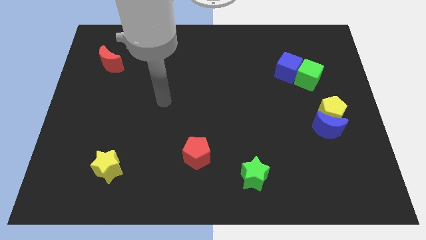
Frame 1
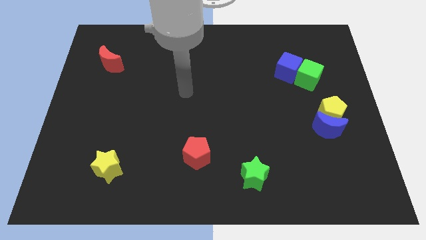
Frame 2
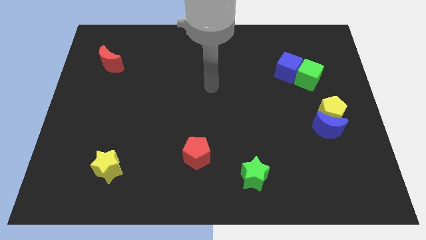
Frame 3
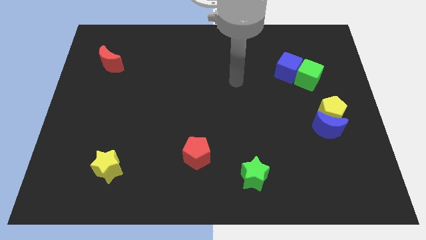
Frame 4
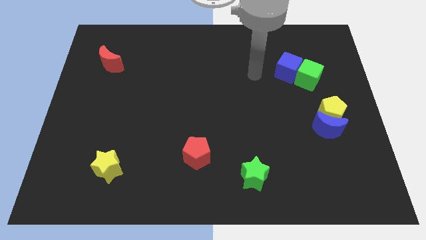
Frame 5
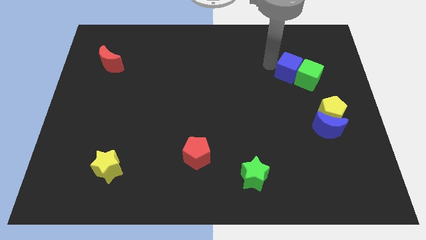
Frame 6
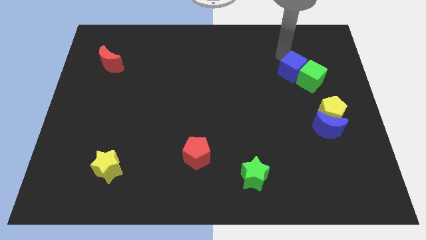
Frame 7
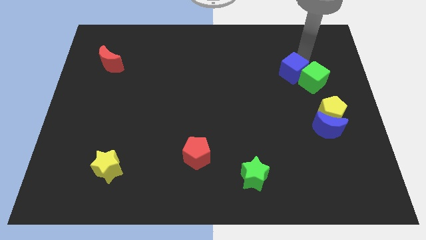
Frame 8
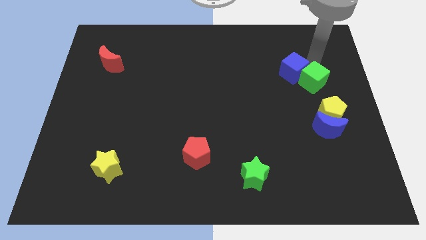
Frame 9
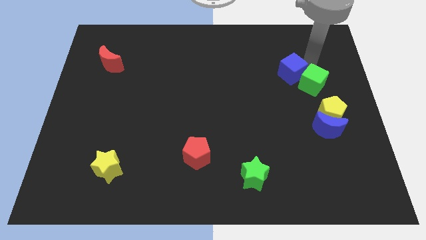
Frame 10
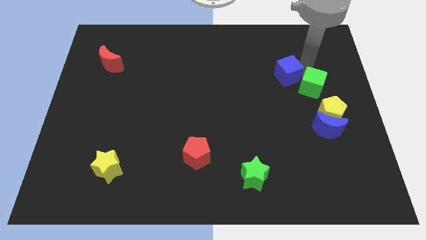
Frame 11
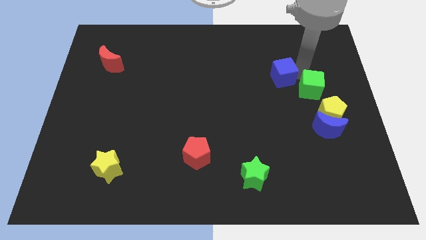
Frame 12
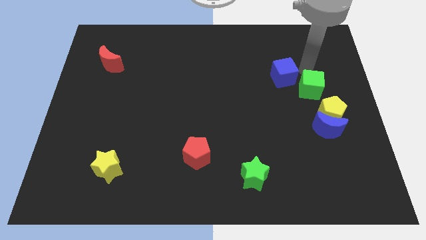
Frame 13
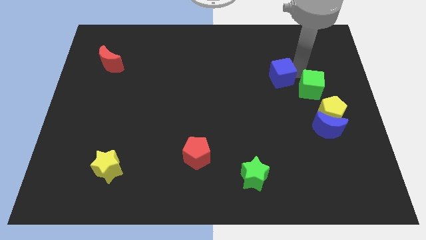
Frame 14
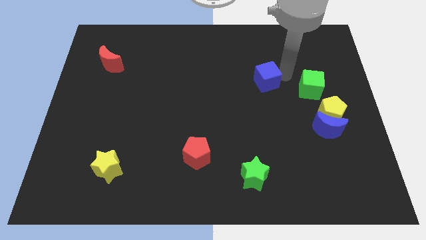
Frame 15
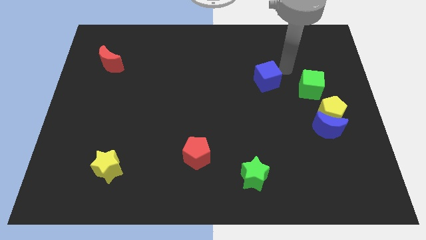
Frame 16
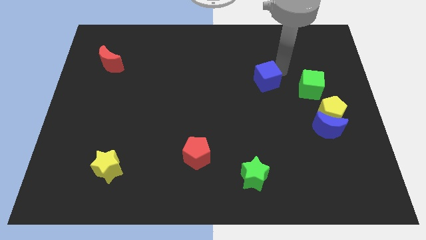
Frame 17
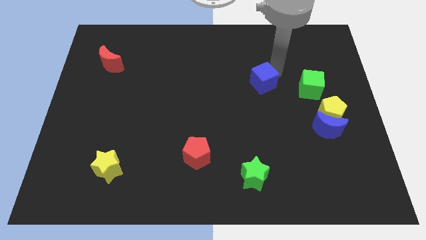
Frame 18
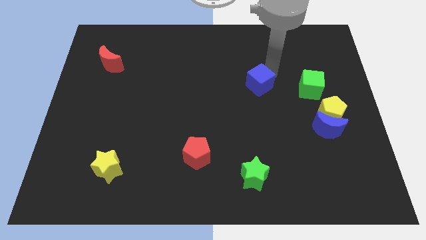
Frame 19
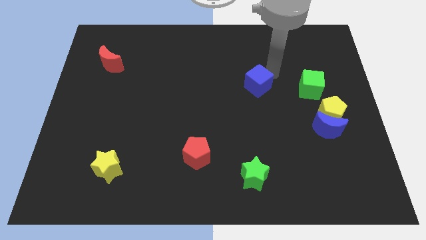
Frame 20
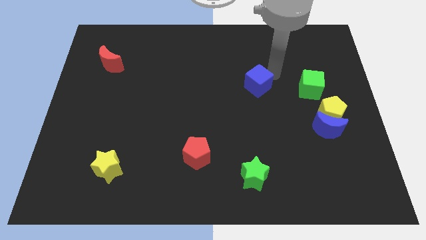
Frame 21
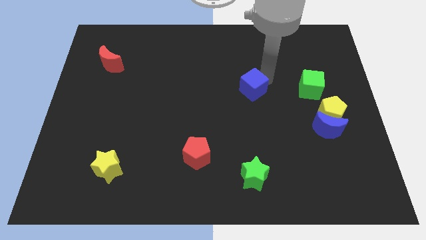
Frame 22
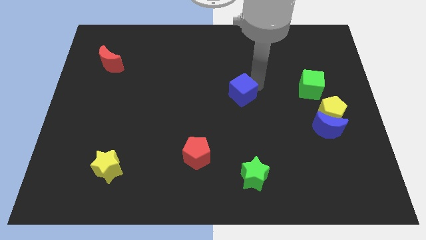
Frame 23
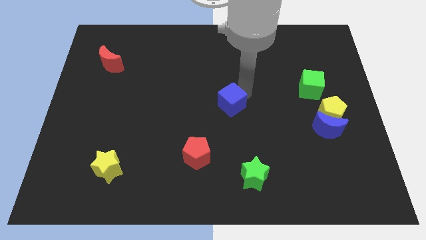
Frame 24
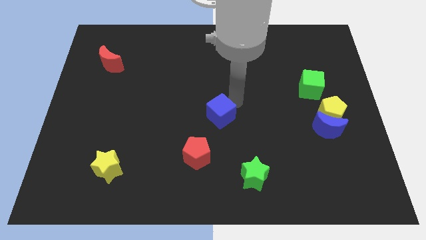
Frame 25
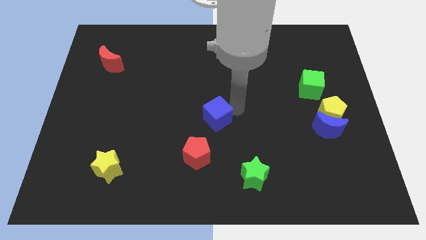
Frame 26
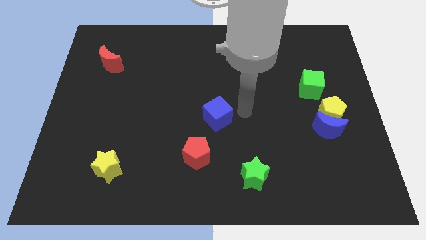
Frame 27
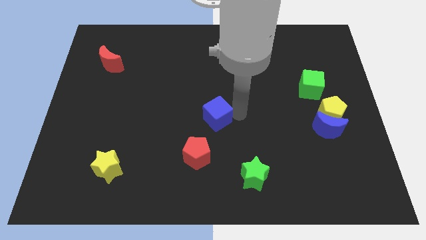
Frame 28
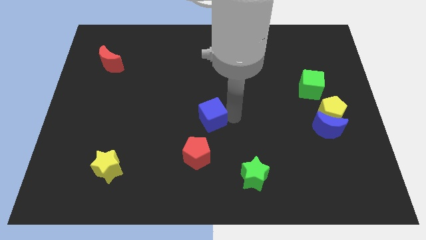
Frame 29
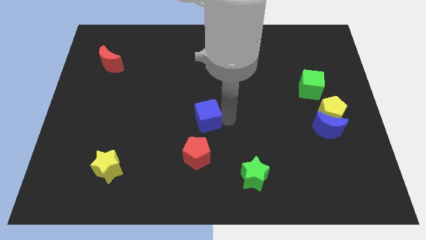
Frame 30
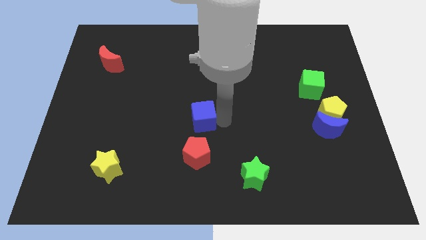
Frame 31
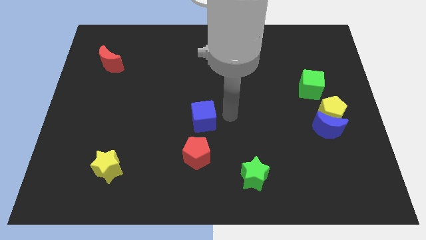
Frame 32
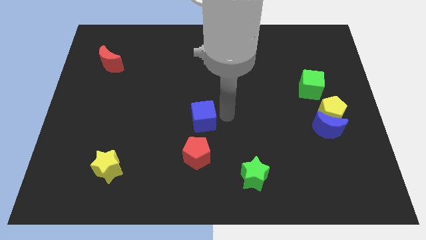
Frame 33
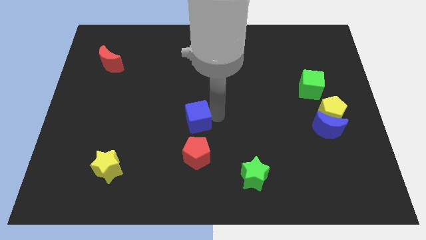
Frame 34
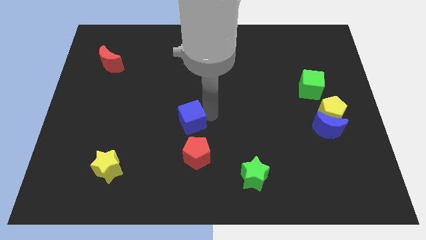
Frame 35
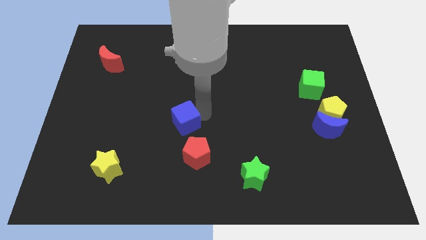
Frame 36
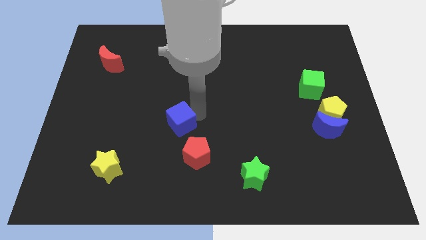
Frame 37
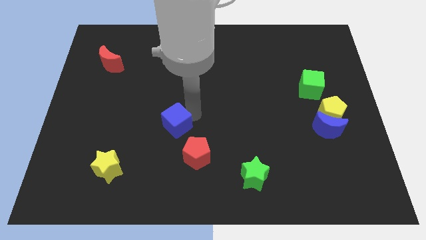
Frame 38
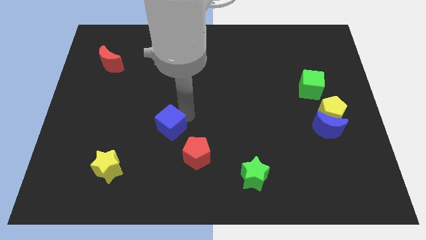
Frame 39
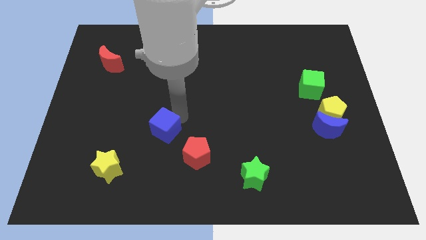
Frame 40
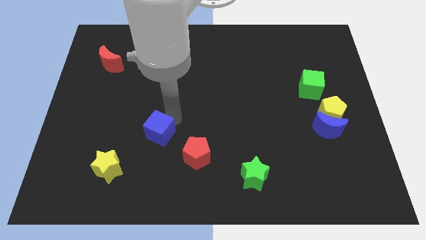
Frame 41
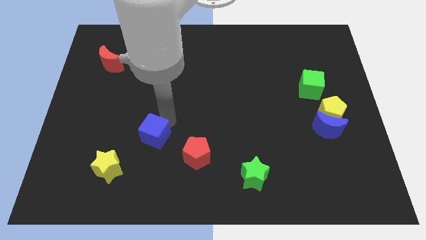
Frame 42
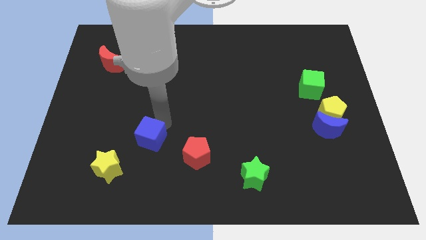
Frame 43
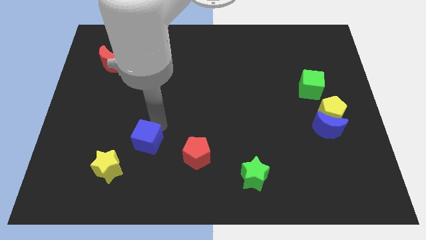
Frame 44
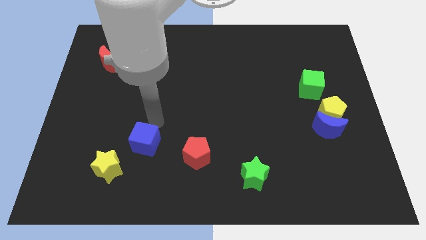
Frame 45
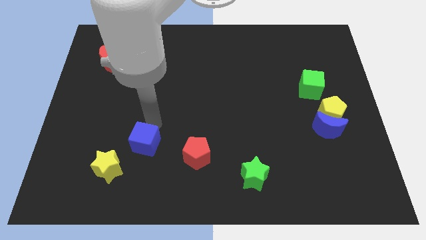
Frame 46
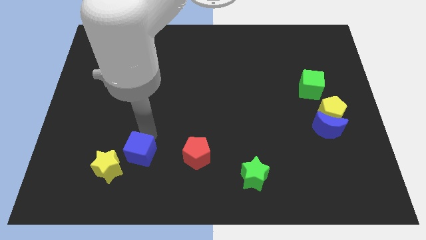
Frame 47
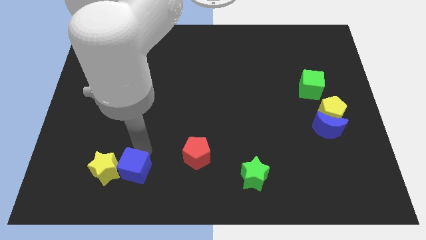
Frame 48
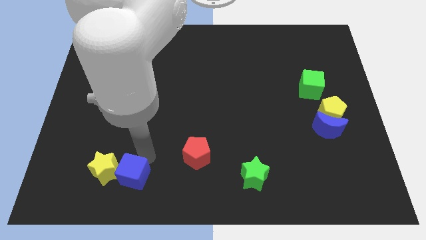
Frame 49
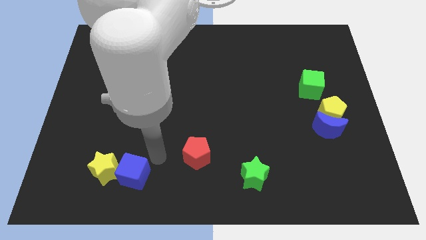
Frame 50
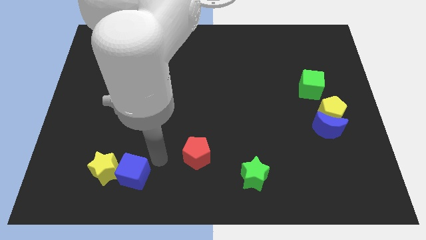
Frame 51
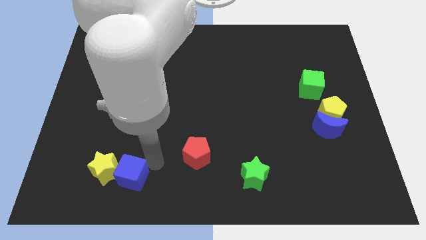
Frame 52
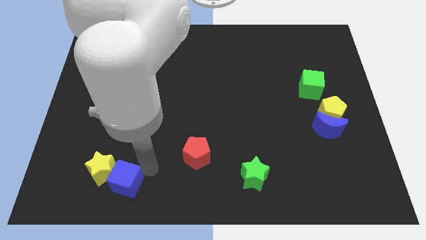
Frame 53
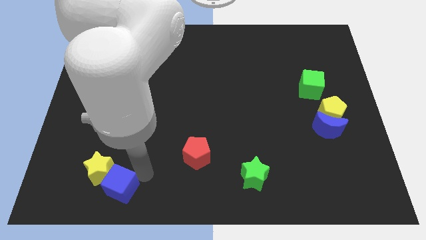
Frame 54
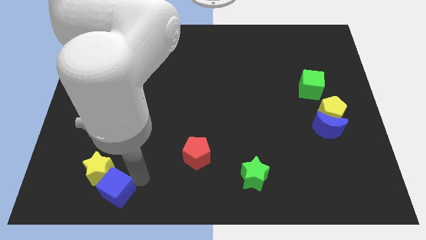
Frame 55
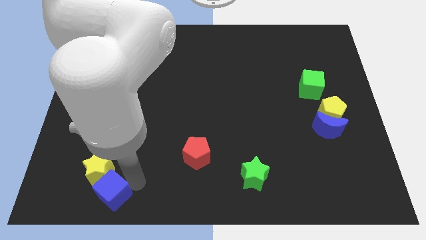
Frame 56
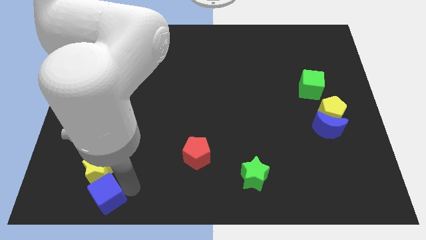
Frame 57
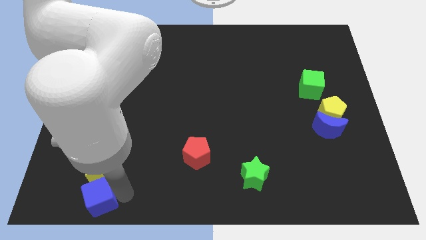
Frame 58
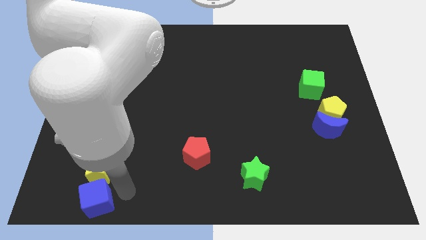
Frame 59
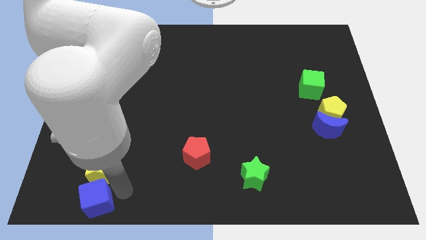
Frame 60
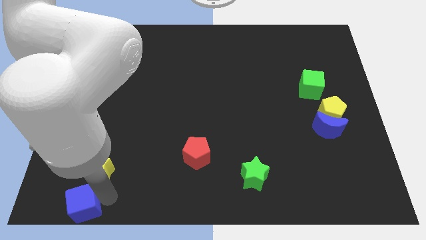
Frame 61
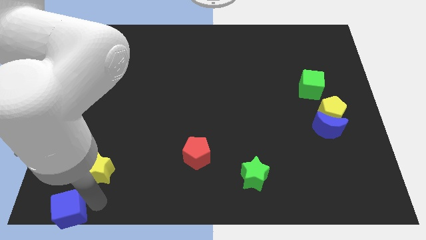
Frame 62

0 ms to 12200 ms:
slide the blue cube to the bottom left of the board

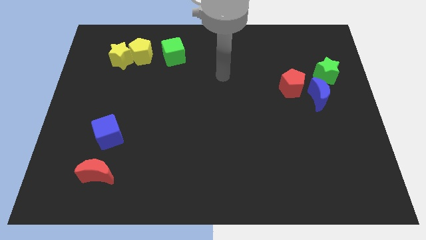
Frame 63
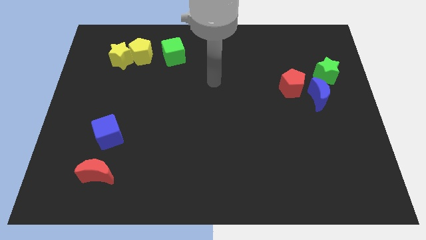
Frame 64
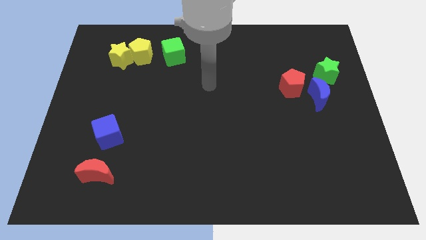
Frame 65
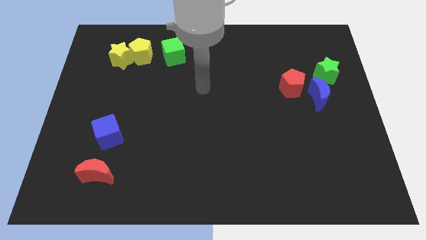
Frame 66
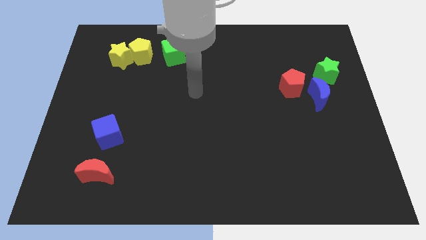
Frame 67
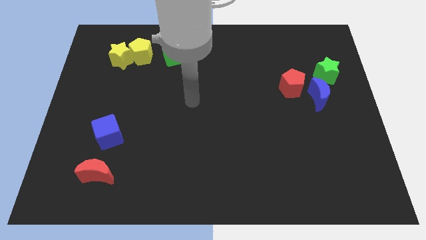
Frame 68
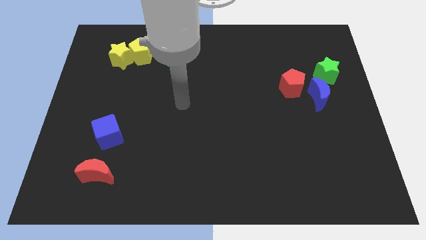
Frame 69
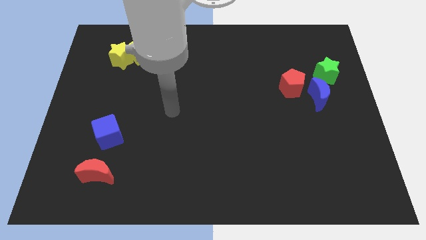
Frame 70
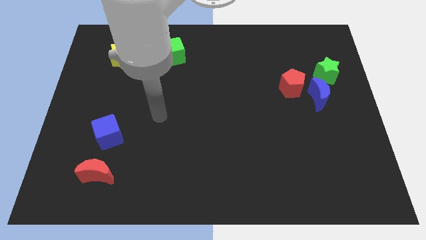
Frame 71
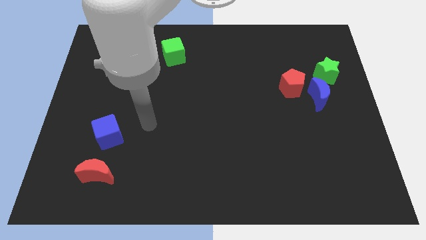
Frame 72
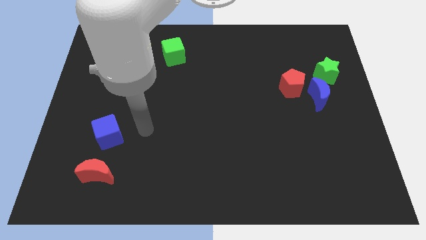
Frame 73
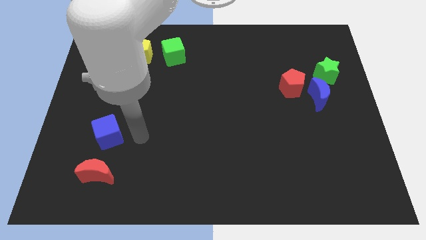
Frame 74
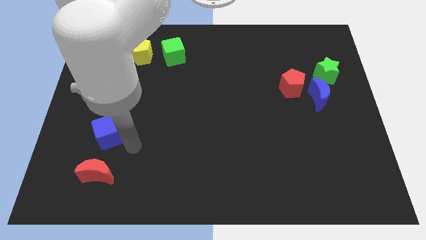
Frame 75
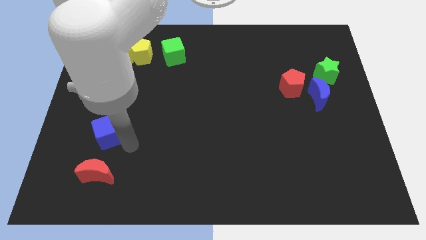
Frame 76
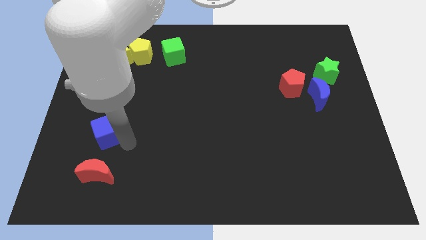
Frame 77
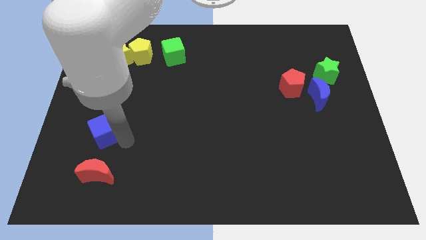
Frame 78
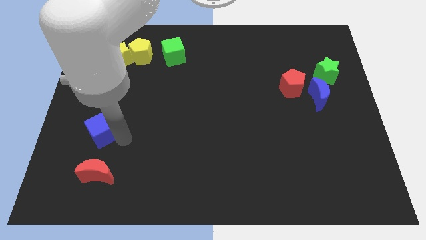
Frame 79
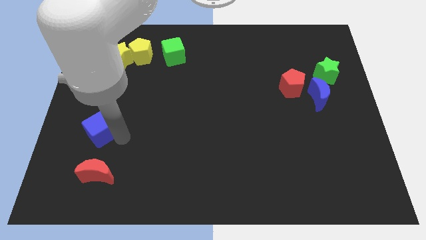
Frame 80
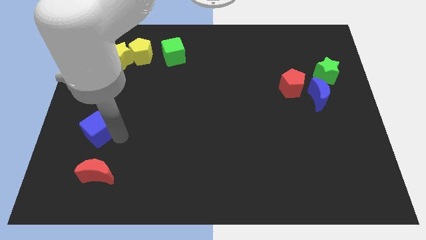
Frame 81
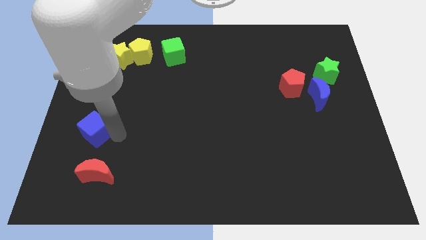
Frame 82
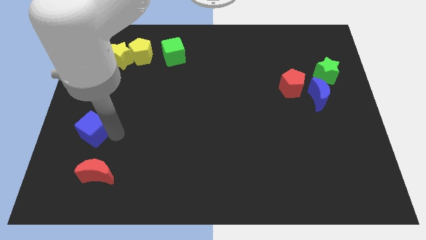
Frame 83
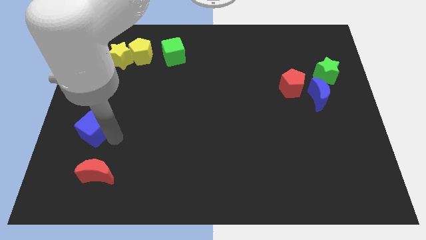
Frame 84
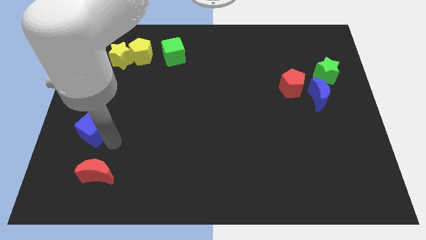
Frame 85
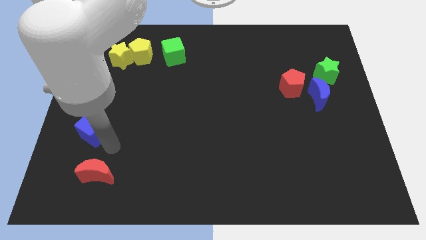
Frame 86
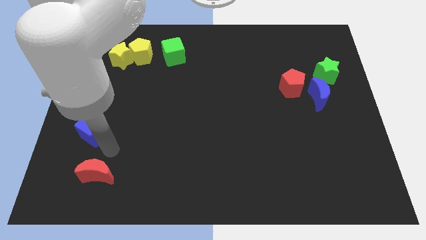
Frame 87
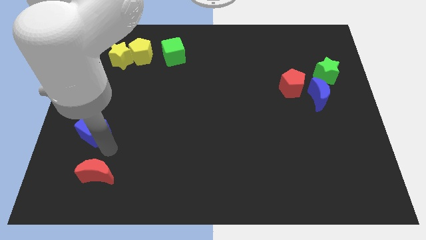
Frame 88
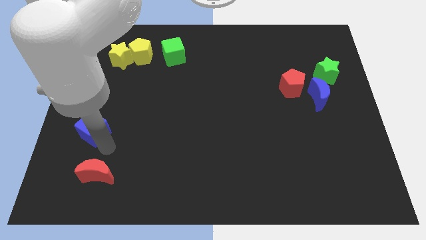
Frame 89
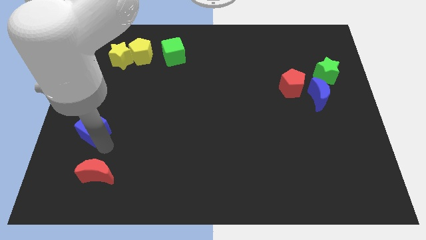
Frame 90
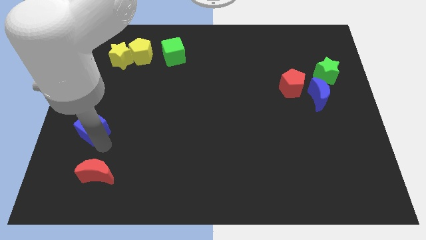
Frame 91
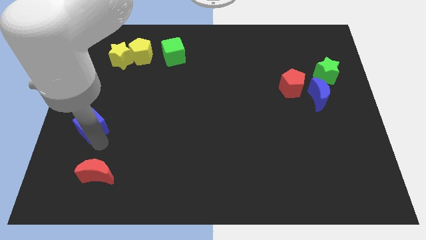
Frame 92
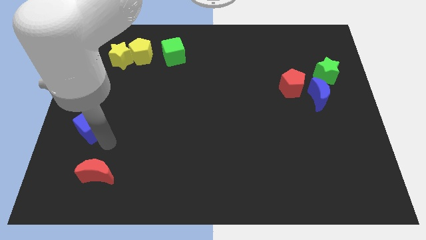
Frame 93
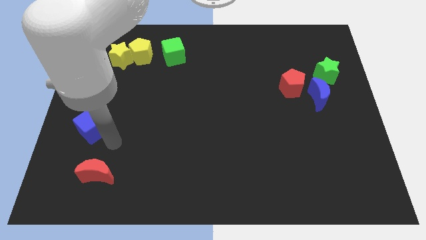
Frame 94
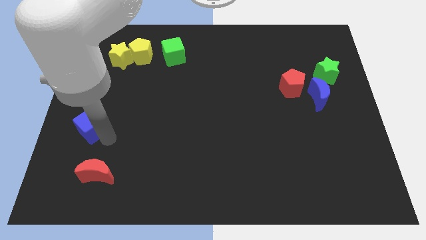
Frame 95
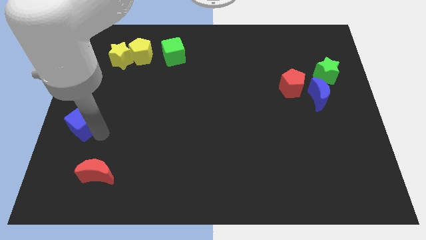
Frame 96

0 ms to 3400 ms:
move the blue cube to the left side
